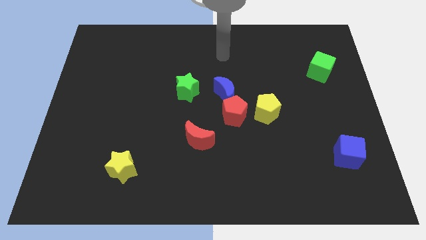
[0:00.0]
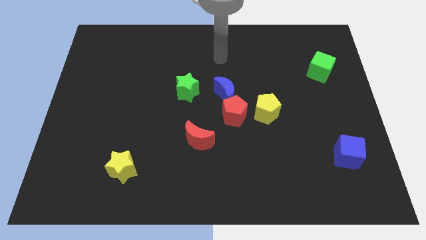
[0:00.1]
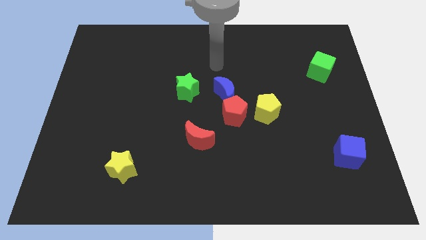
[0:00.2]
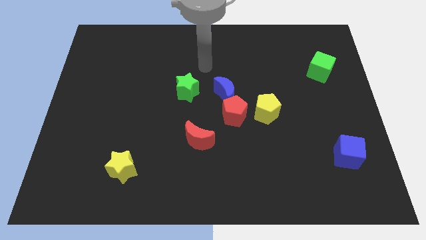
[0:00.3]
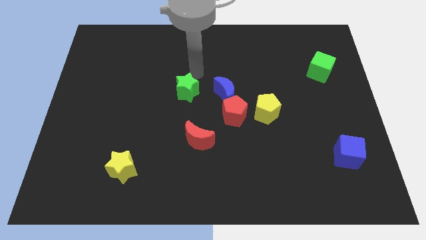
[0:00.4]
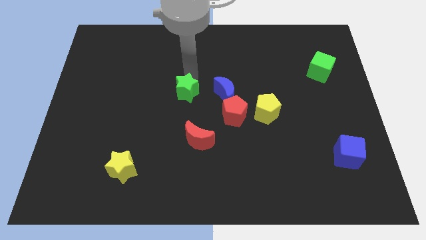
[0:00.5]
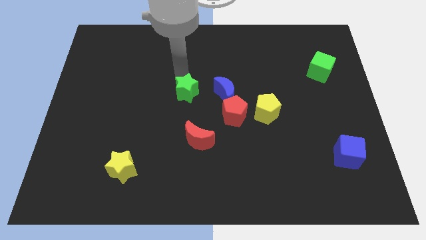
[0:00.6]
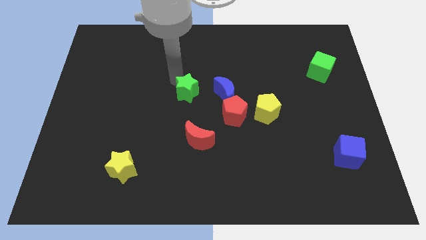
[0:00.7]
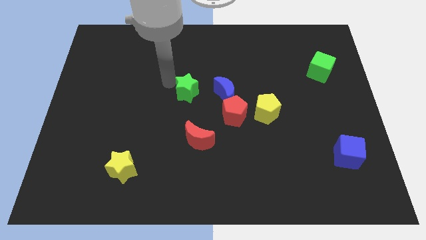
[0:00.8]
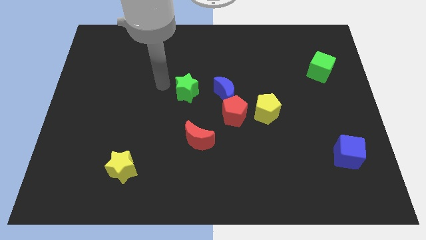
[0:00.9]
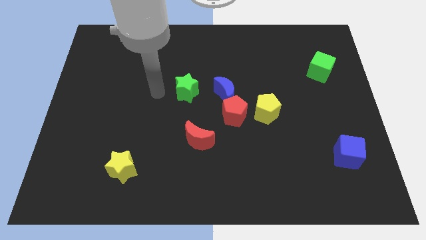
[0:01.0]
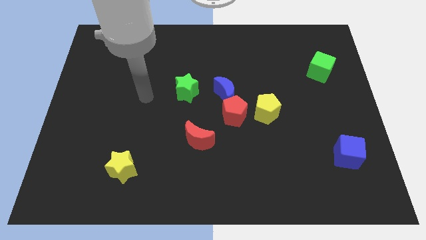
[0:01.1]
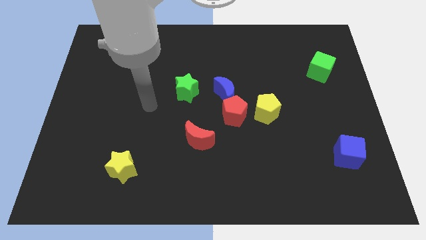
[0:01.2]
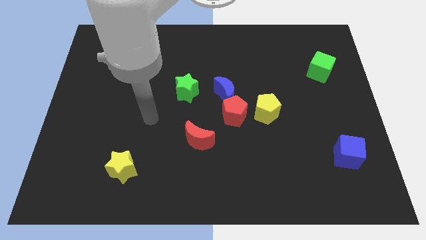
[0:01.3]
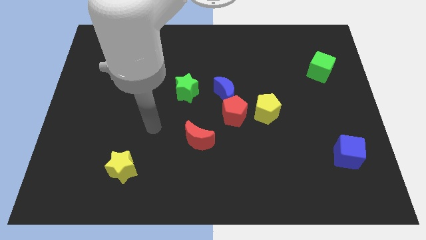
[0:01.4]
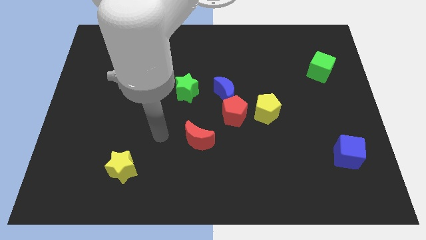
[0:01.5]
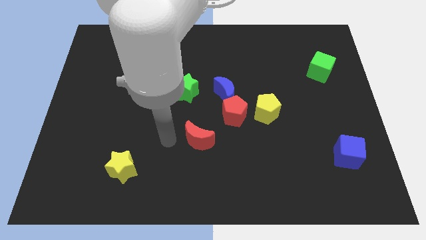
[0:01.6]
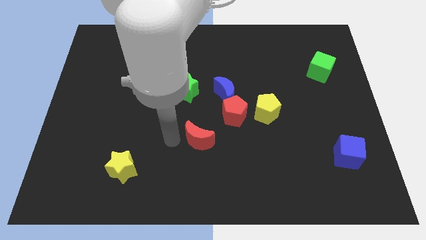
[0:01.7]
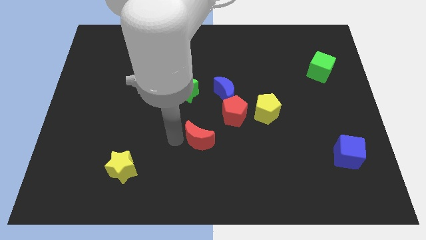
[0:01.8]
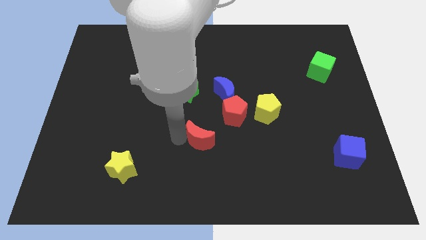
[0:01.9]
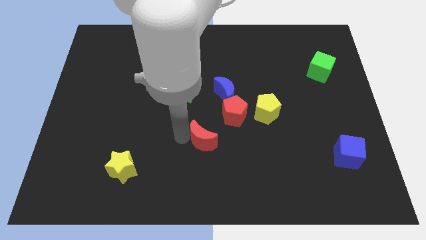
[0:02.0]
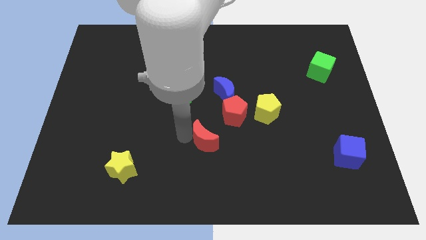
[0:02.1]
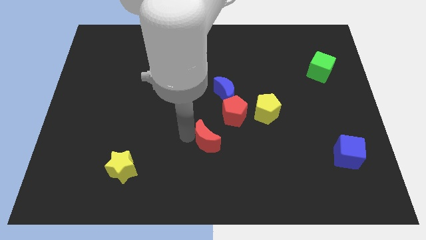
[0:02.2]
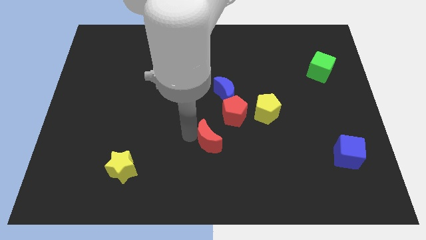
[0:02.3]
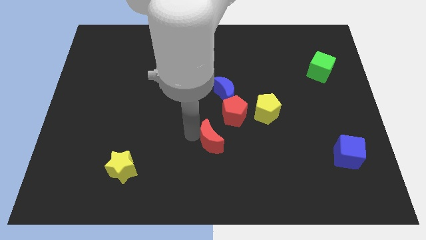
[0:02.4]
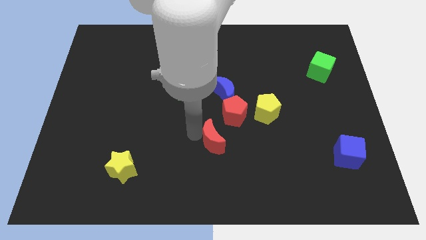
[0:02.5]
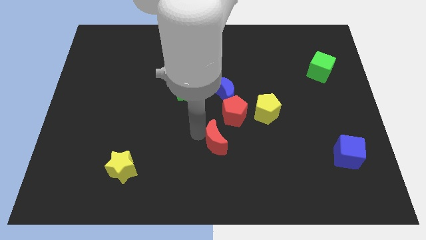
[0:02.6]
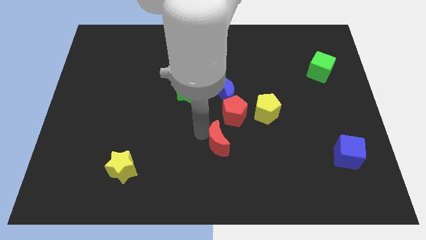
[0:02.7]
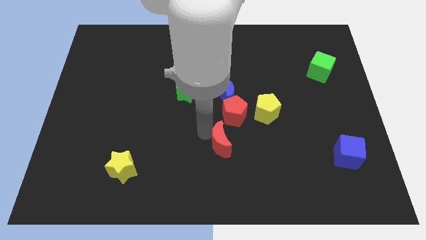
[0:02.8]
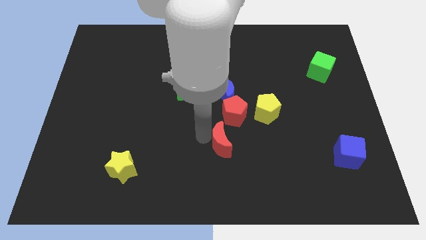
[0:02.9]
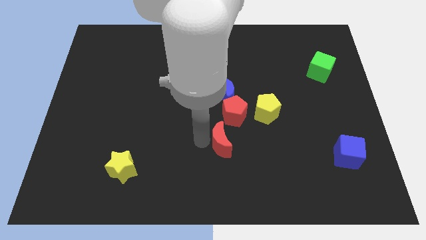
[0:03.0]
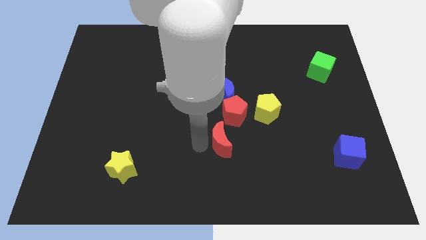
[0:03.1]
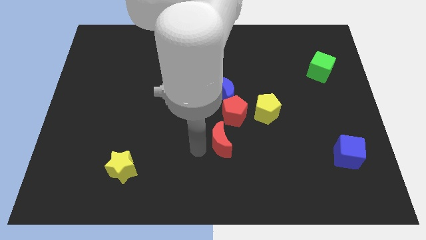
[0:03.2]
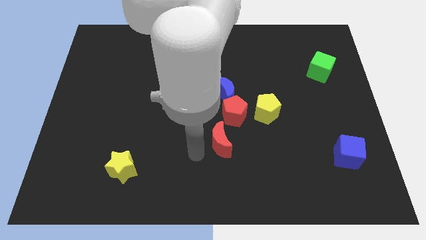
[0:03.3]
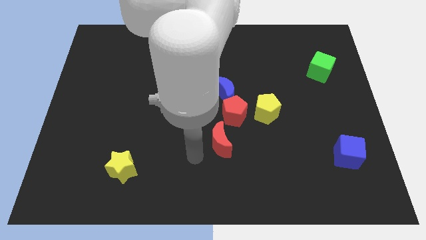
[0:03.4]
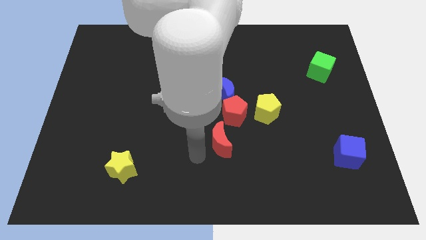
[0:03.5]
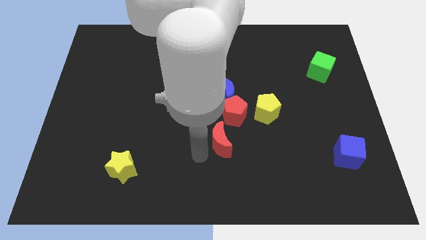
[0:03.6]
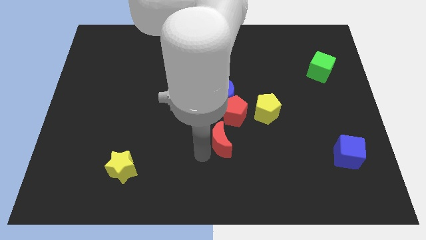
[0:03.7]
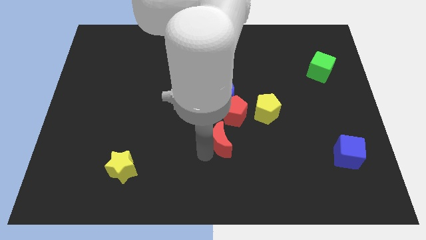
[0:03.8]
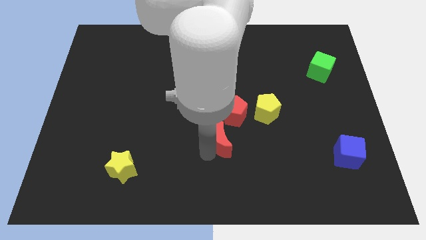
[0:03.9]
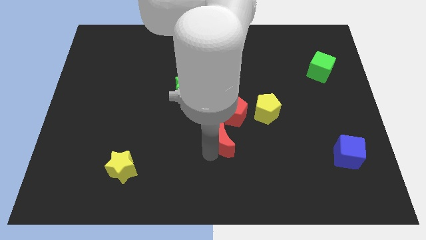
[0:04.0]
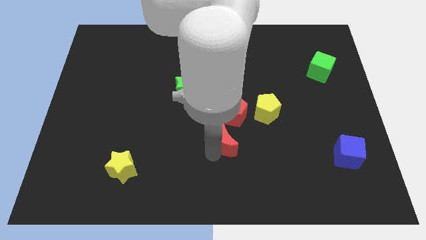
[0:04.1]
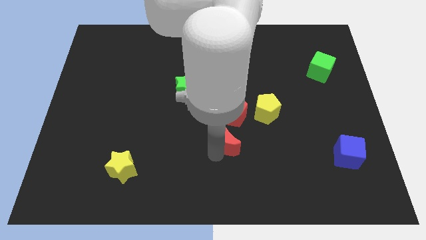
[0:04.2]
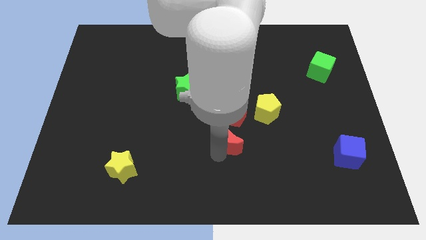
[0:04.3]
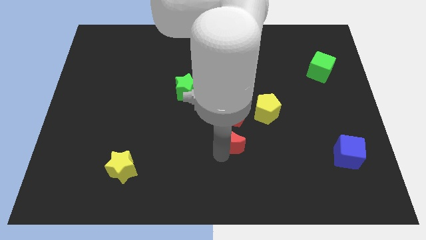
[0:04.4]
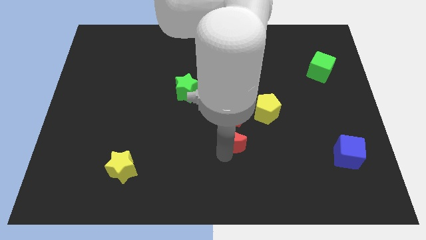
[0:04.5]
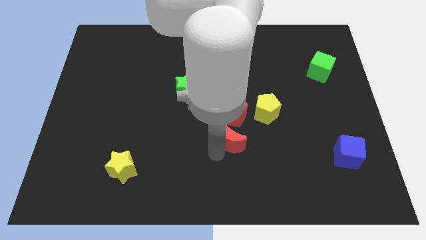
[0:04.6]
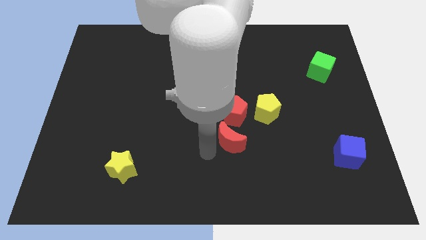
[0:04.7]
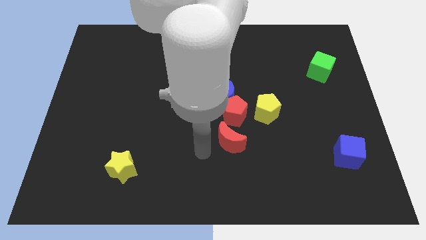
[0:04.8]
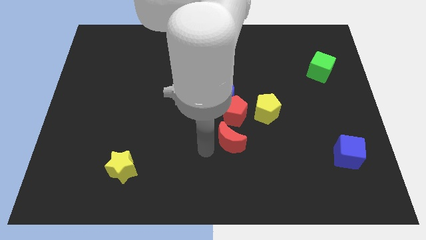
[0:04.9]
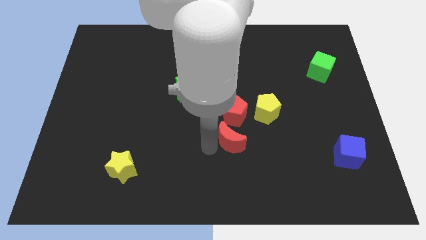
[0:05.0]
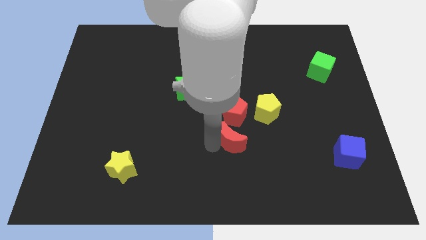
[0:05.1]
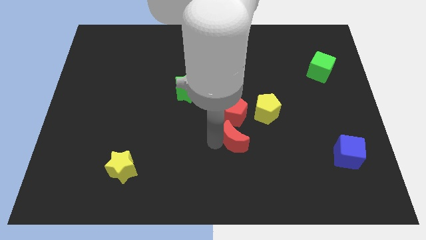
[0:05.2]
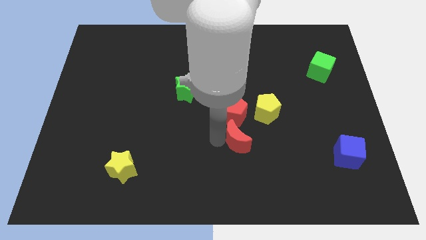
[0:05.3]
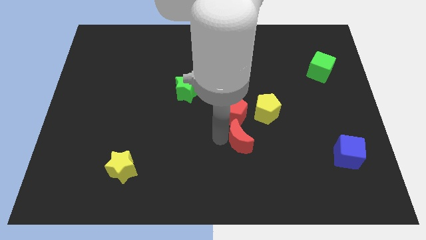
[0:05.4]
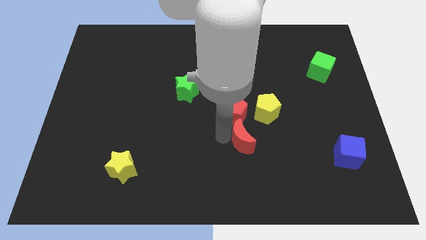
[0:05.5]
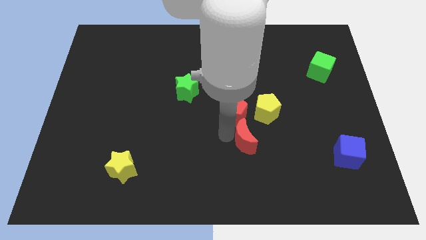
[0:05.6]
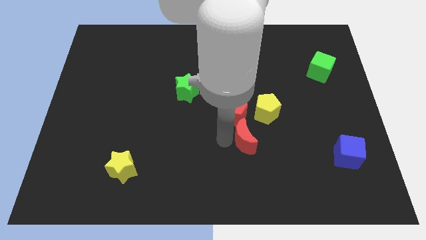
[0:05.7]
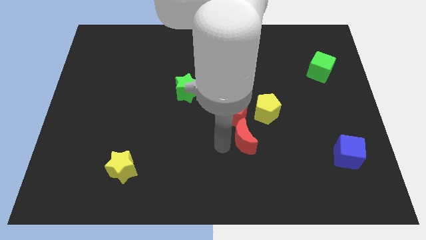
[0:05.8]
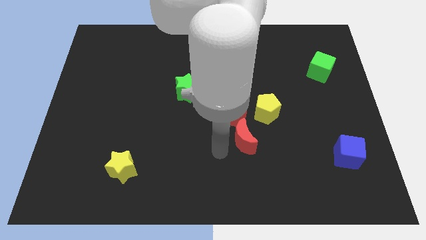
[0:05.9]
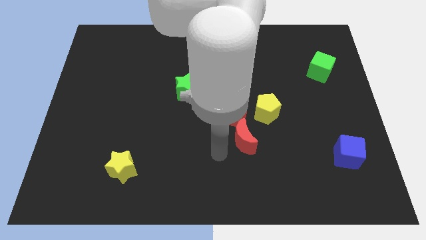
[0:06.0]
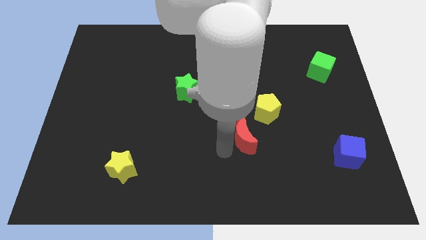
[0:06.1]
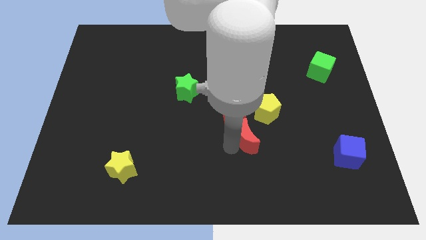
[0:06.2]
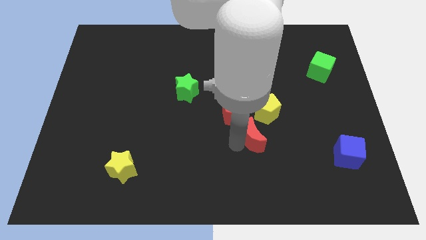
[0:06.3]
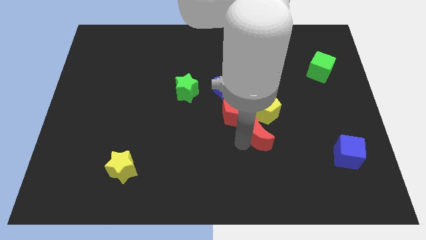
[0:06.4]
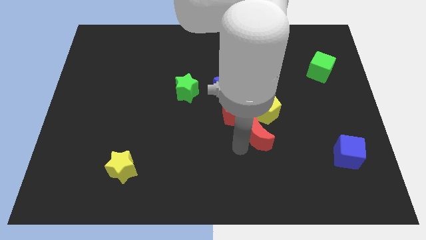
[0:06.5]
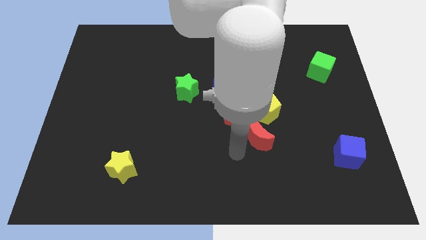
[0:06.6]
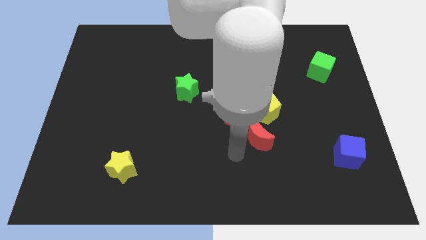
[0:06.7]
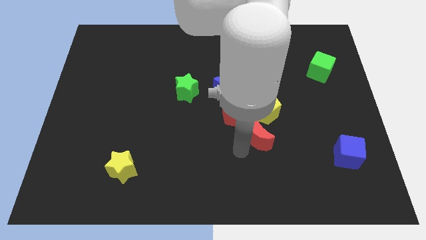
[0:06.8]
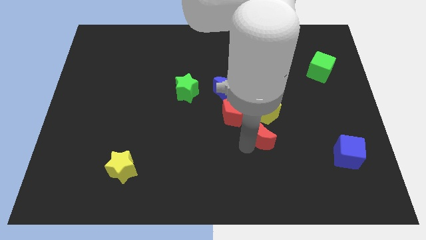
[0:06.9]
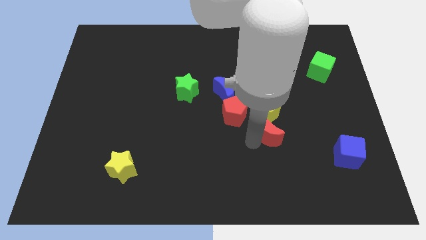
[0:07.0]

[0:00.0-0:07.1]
move the red moon up and right diagonally slightly

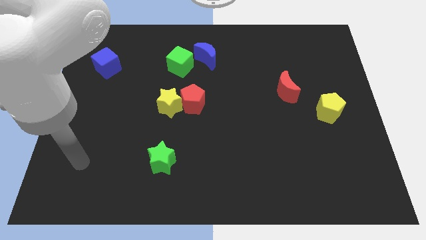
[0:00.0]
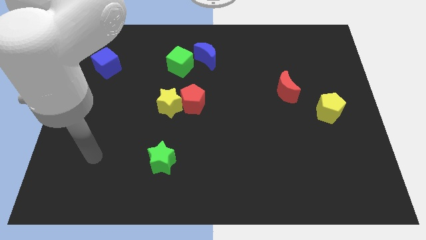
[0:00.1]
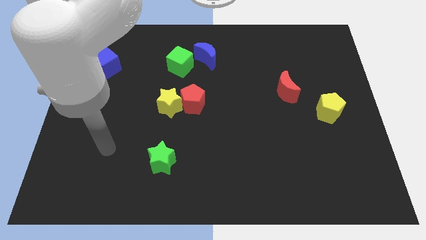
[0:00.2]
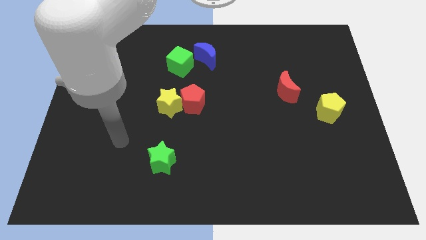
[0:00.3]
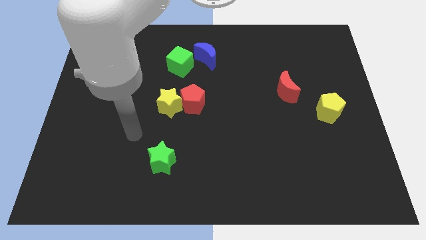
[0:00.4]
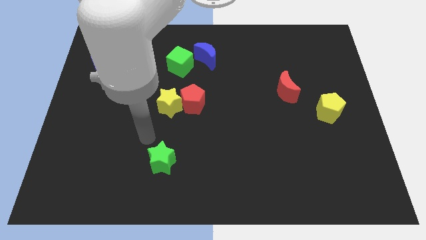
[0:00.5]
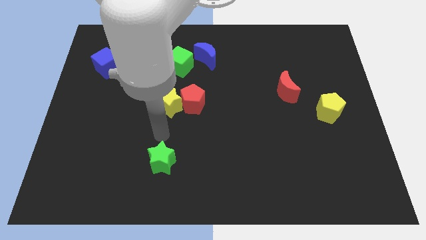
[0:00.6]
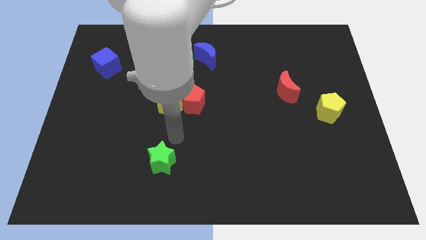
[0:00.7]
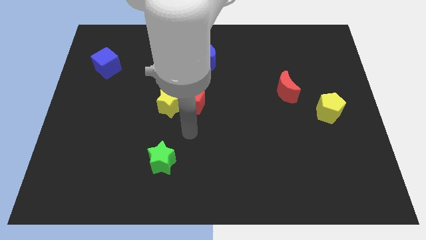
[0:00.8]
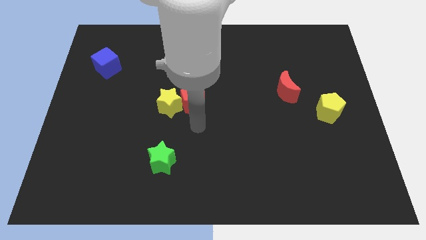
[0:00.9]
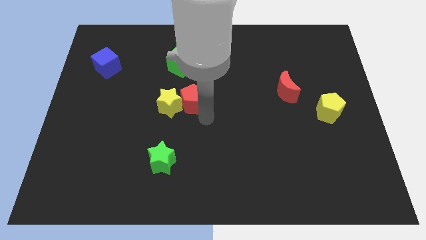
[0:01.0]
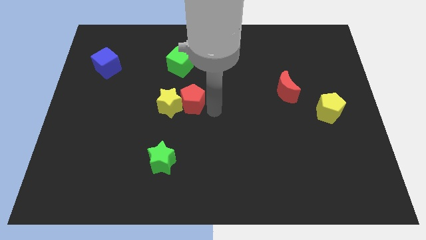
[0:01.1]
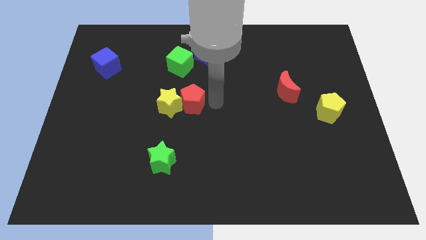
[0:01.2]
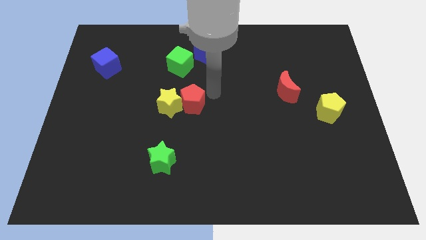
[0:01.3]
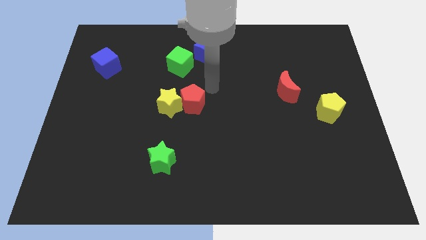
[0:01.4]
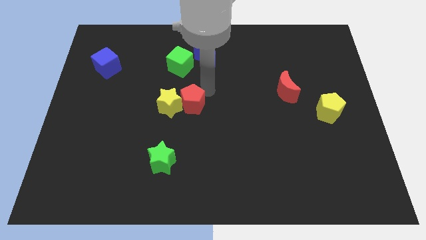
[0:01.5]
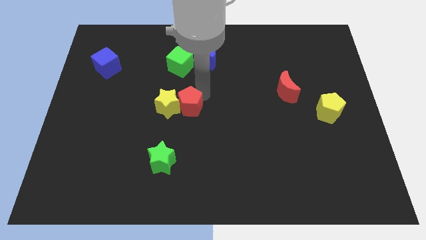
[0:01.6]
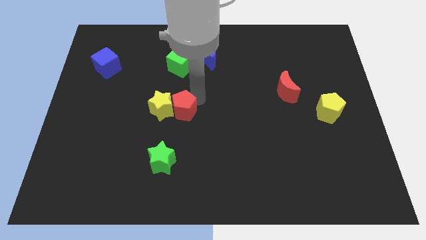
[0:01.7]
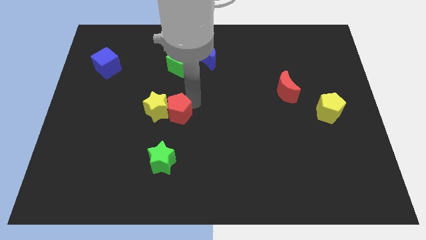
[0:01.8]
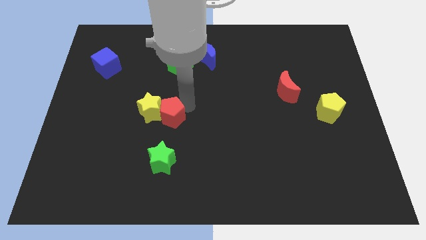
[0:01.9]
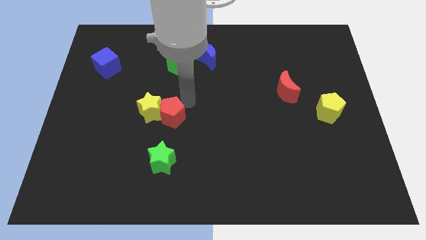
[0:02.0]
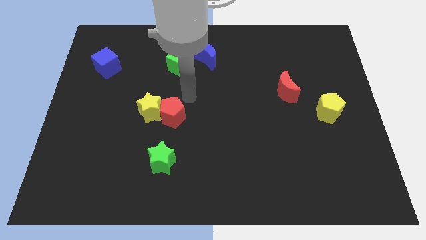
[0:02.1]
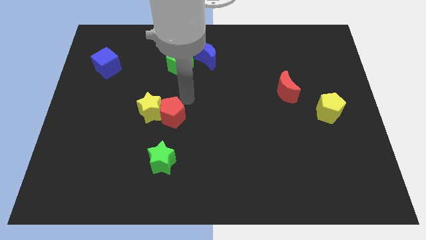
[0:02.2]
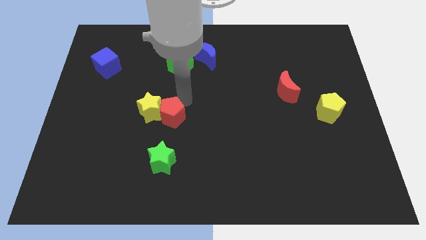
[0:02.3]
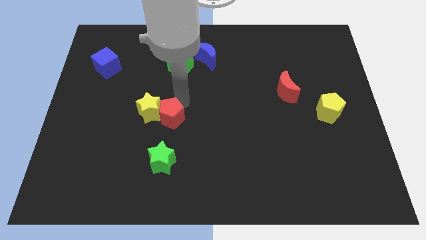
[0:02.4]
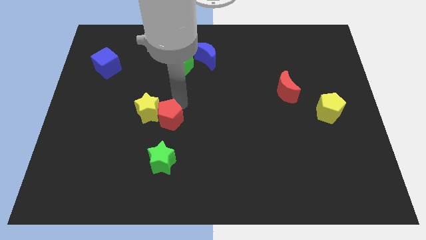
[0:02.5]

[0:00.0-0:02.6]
move the red pentagon slightly downwards and left diagonally
